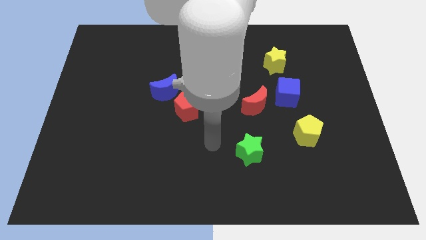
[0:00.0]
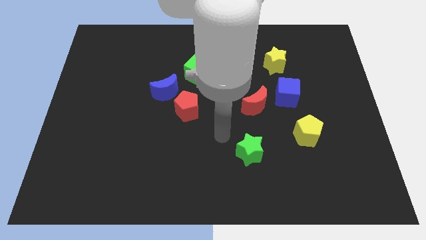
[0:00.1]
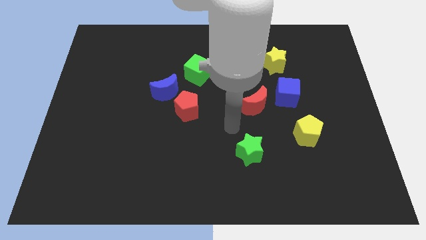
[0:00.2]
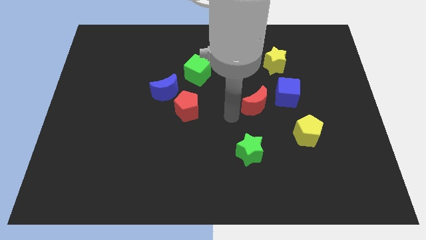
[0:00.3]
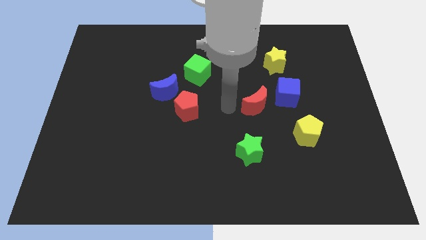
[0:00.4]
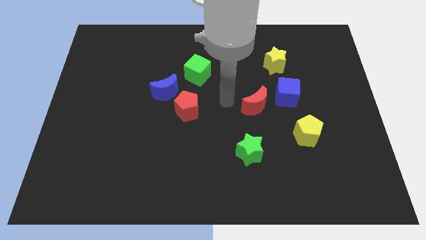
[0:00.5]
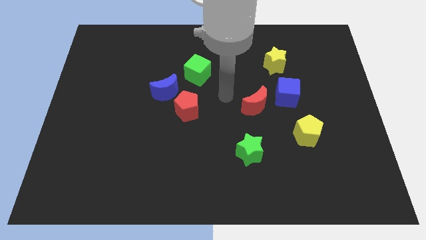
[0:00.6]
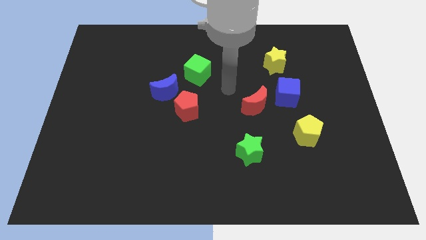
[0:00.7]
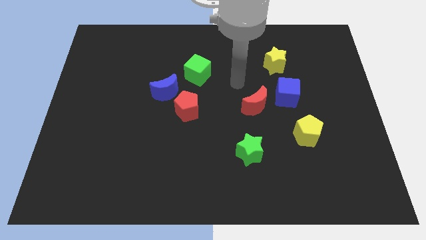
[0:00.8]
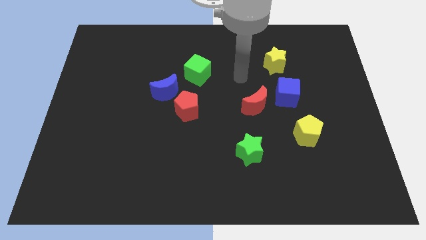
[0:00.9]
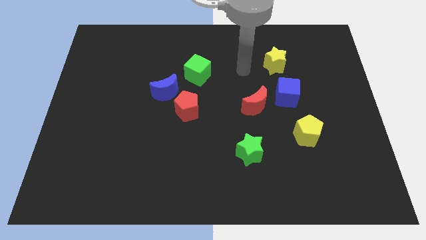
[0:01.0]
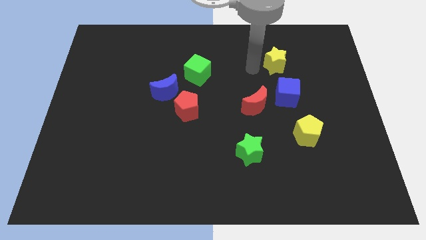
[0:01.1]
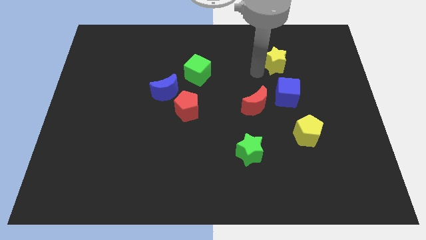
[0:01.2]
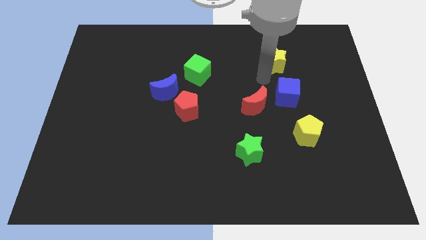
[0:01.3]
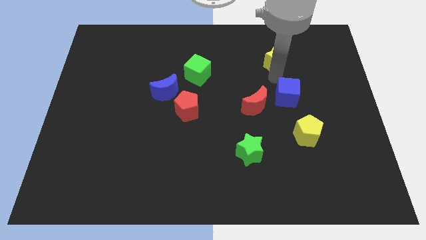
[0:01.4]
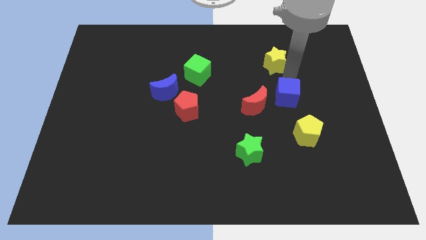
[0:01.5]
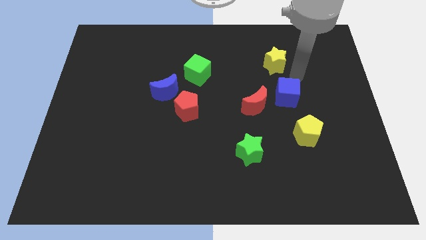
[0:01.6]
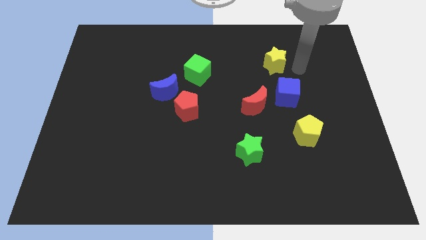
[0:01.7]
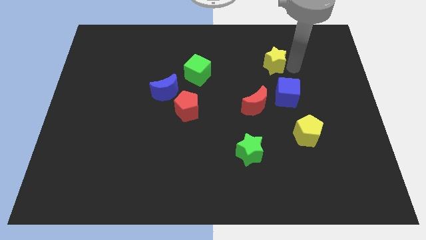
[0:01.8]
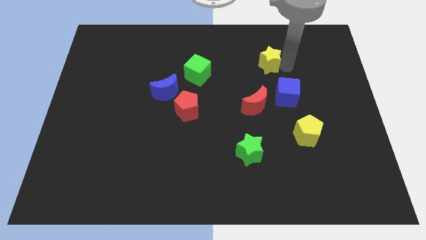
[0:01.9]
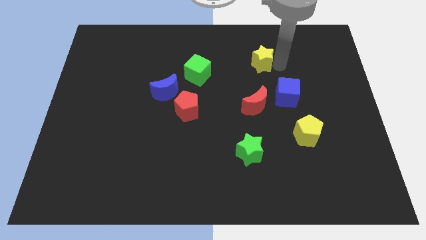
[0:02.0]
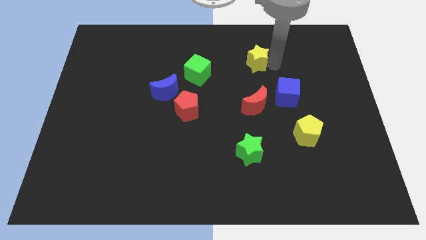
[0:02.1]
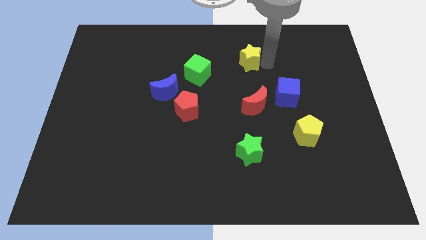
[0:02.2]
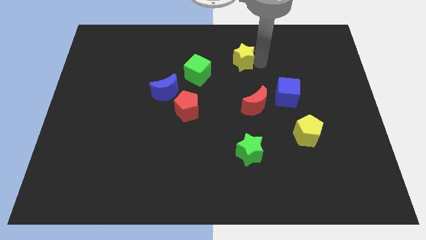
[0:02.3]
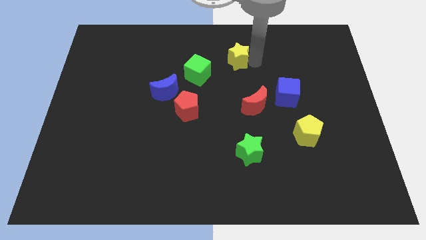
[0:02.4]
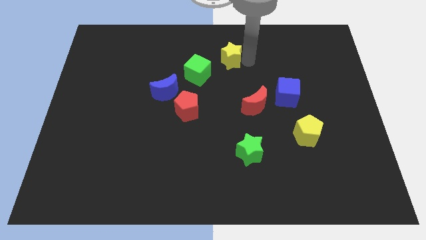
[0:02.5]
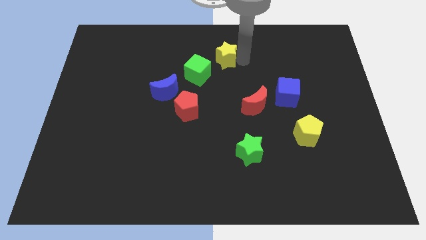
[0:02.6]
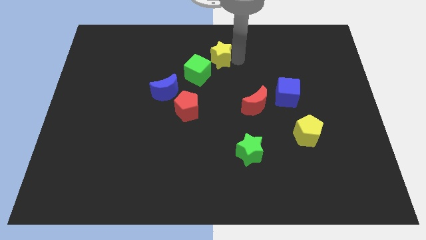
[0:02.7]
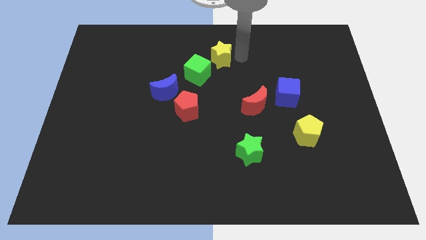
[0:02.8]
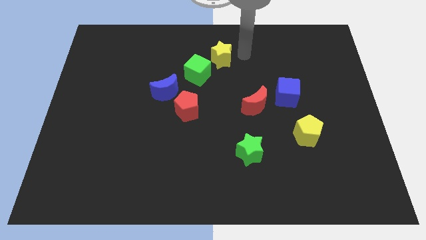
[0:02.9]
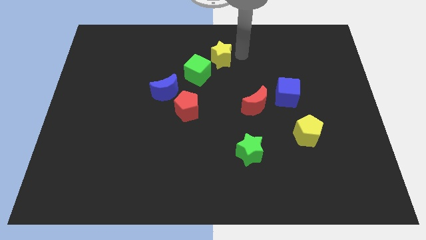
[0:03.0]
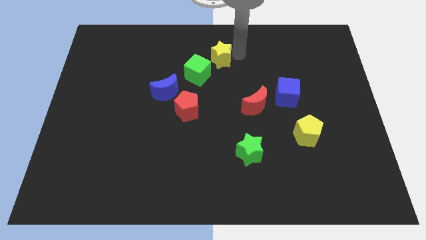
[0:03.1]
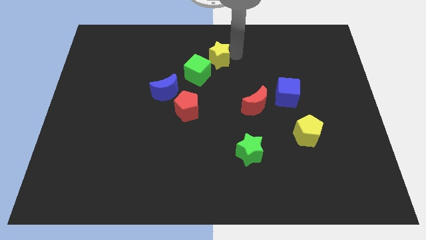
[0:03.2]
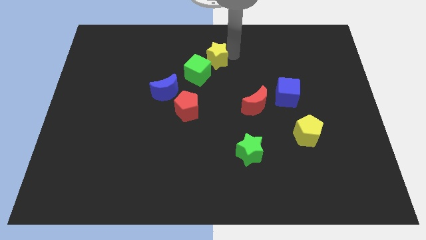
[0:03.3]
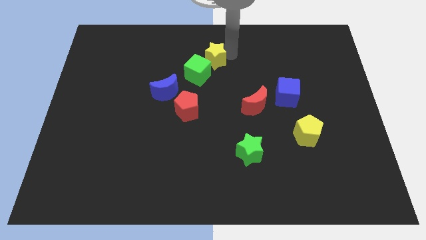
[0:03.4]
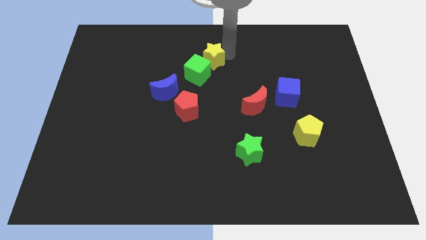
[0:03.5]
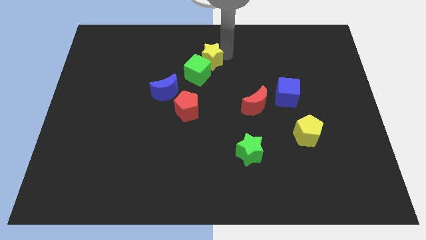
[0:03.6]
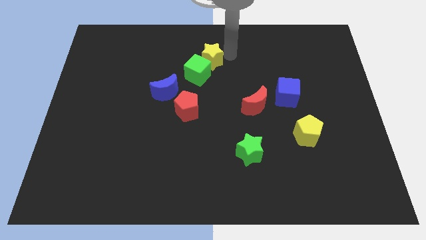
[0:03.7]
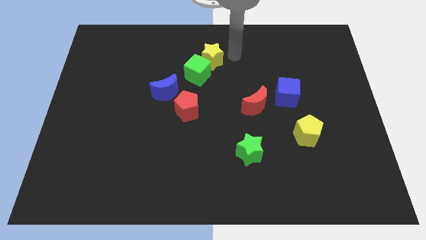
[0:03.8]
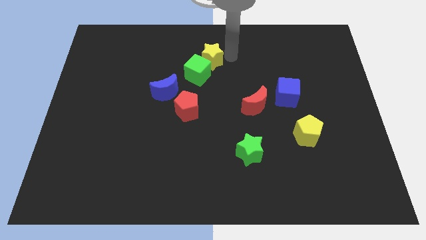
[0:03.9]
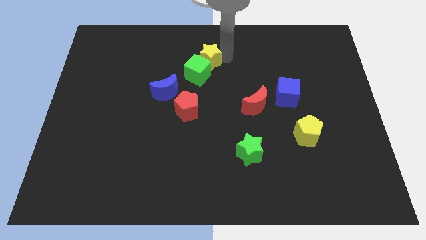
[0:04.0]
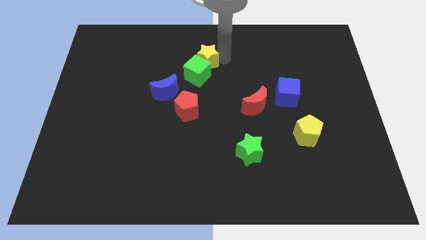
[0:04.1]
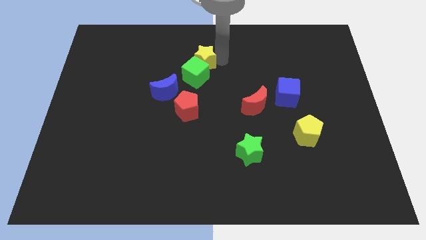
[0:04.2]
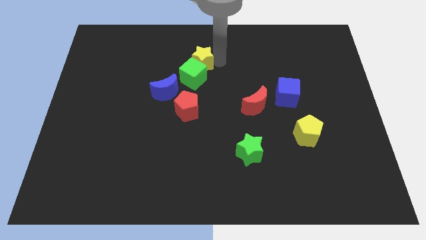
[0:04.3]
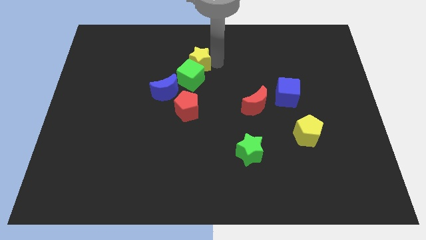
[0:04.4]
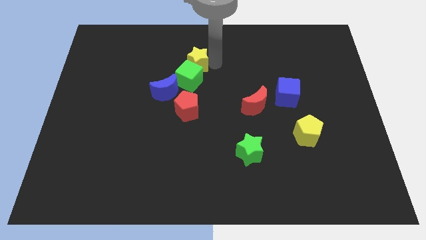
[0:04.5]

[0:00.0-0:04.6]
move the yellow star left

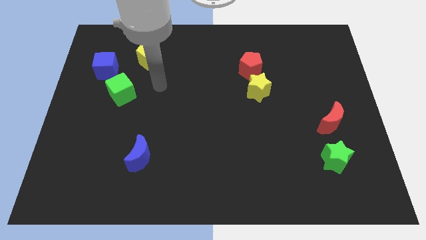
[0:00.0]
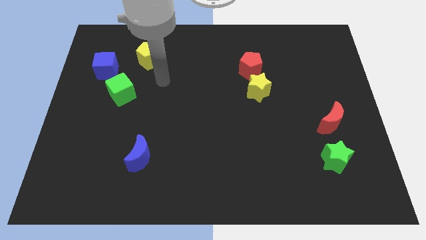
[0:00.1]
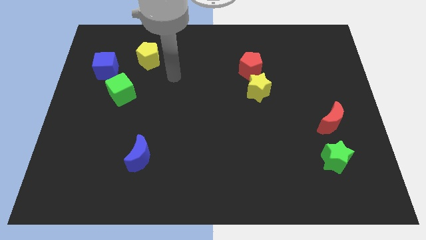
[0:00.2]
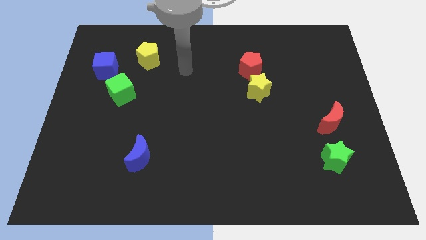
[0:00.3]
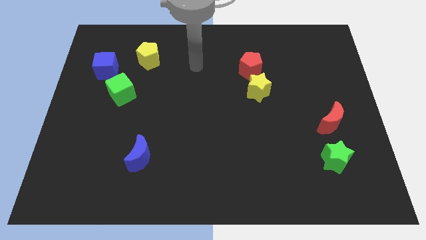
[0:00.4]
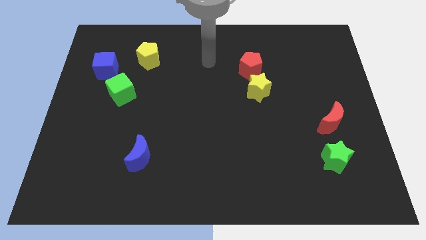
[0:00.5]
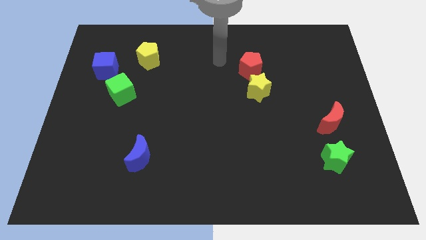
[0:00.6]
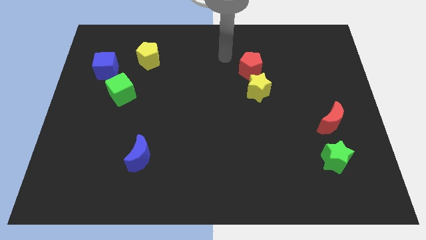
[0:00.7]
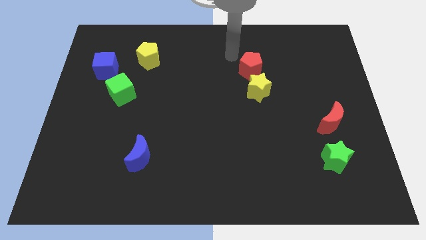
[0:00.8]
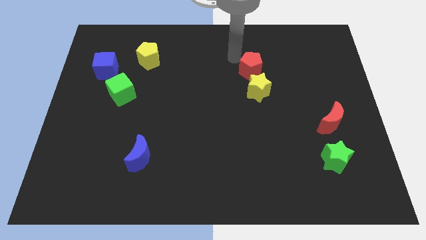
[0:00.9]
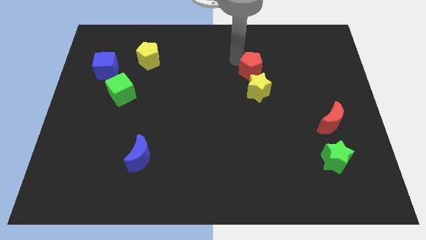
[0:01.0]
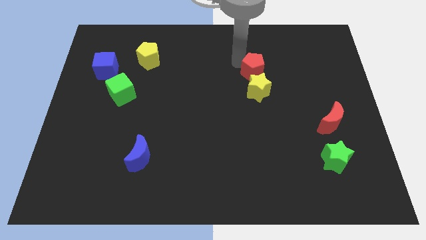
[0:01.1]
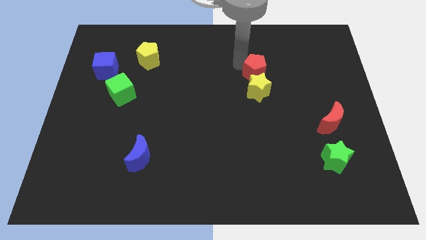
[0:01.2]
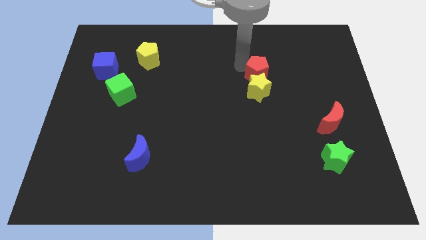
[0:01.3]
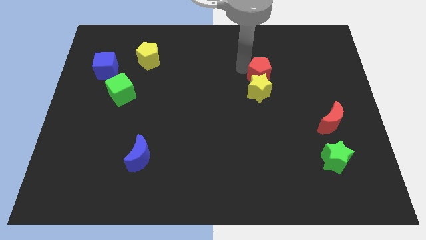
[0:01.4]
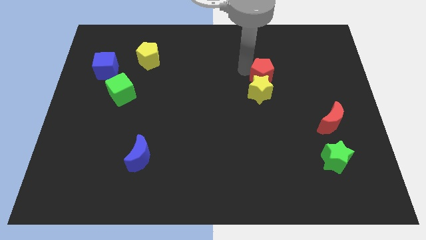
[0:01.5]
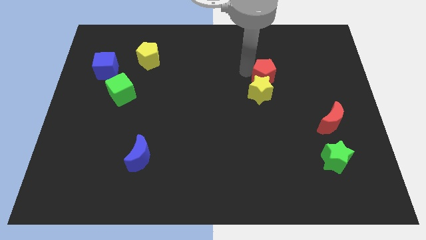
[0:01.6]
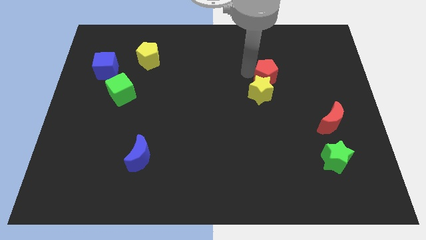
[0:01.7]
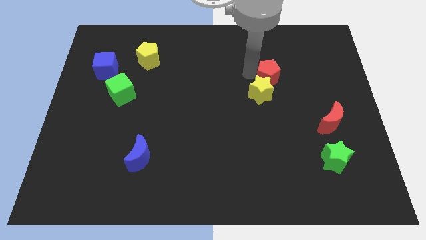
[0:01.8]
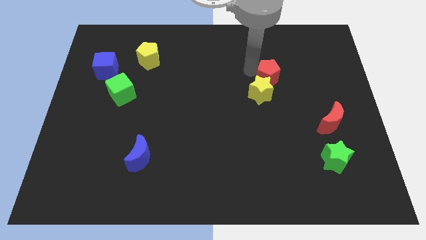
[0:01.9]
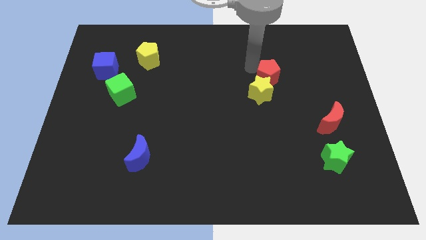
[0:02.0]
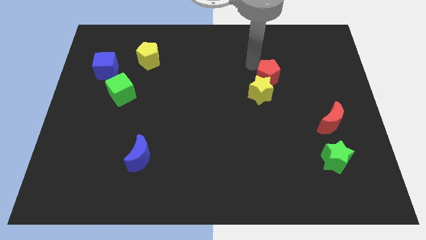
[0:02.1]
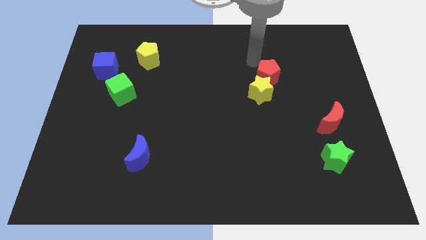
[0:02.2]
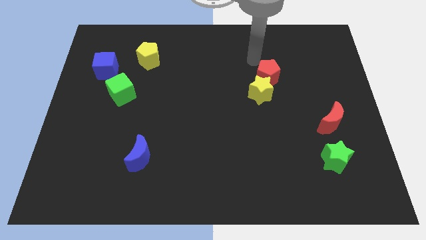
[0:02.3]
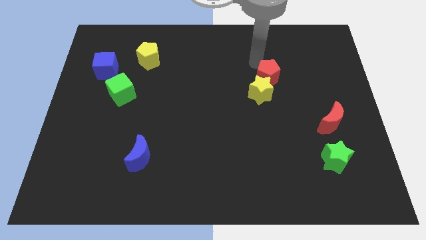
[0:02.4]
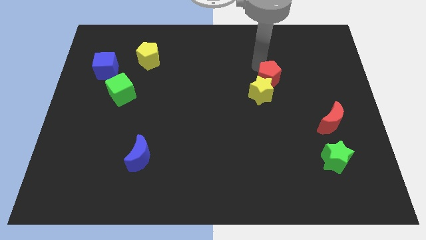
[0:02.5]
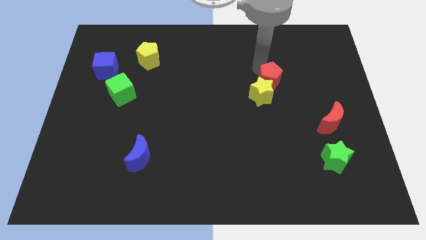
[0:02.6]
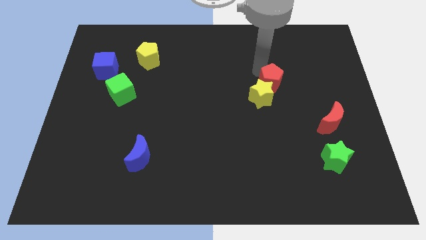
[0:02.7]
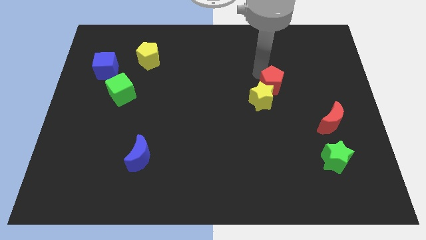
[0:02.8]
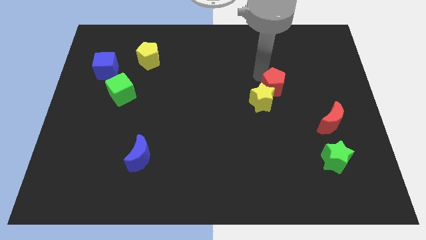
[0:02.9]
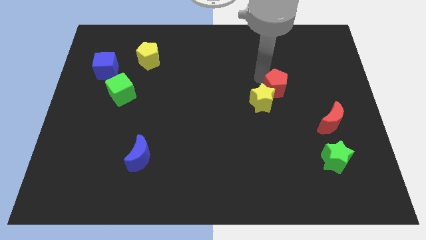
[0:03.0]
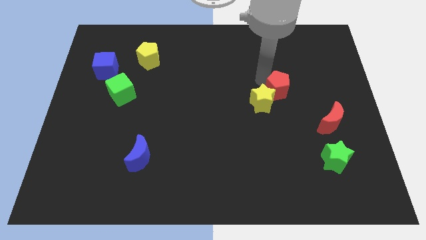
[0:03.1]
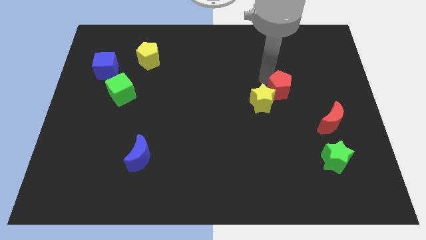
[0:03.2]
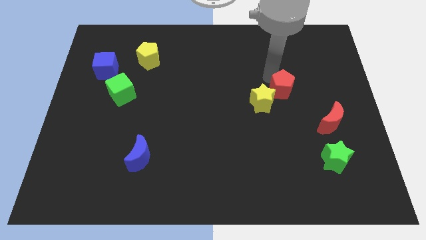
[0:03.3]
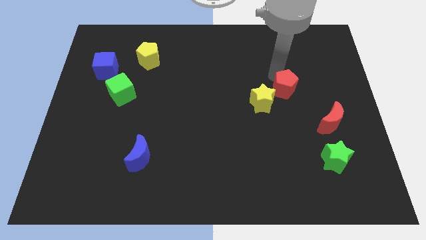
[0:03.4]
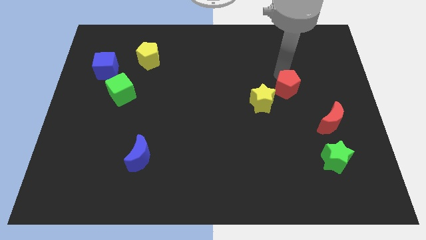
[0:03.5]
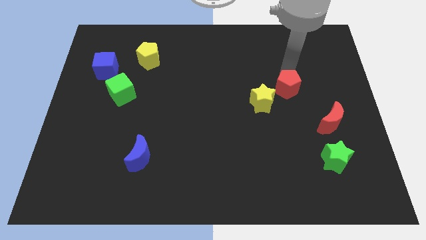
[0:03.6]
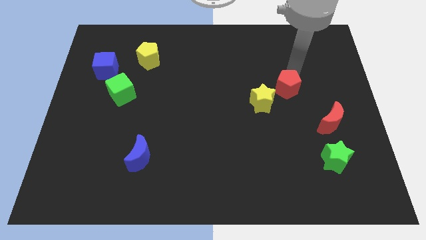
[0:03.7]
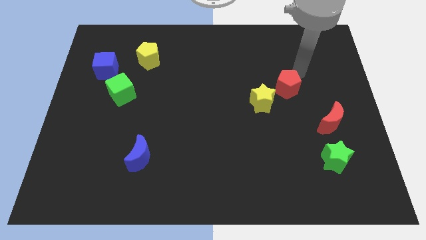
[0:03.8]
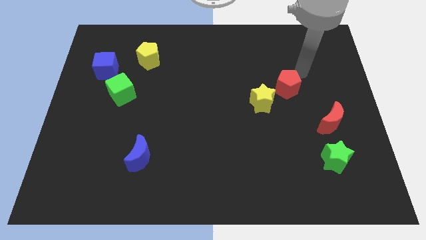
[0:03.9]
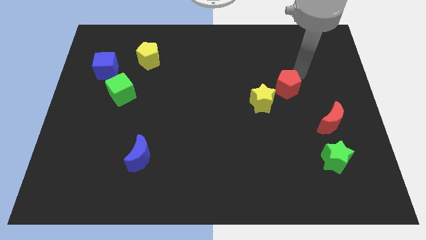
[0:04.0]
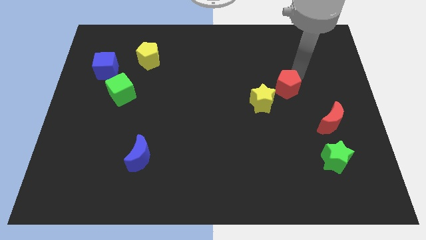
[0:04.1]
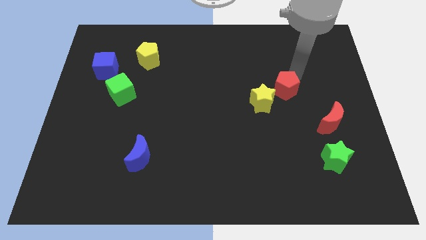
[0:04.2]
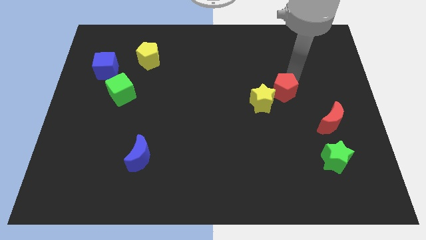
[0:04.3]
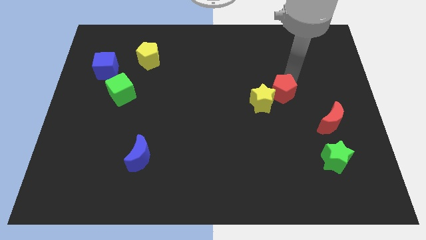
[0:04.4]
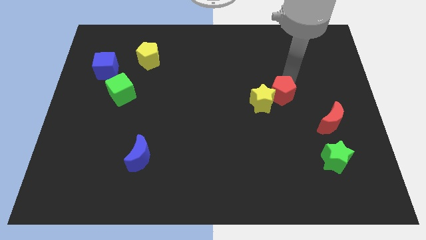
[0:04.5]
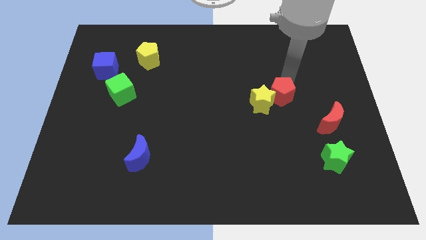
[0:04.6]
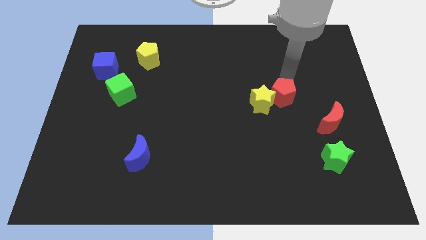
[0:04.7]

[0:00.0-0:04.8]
slightly slide the red pentagon downwards
